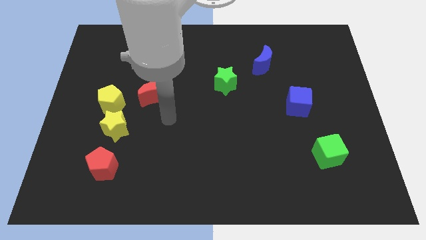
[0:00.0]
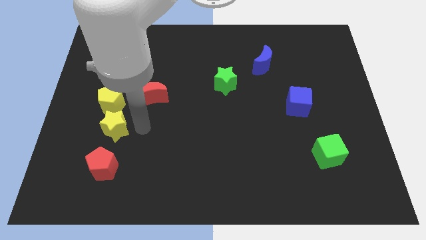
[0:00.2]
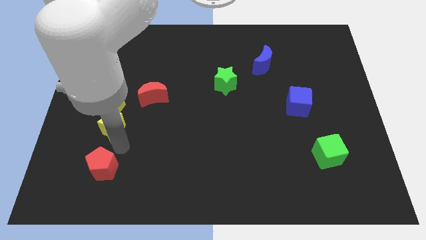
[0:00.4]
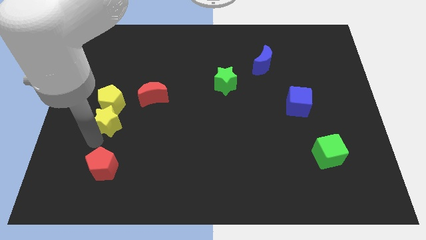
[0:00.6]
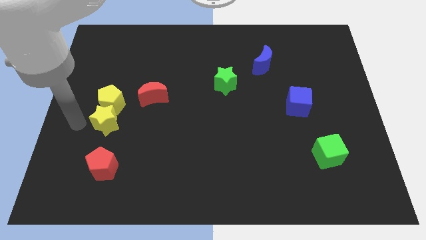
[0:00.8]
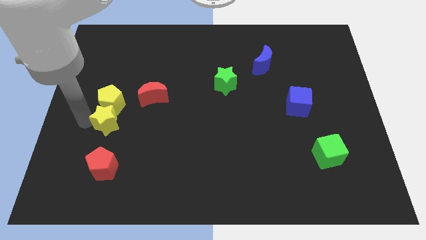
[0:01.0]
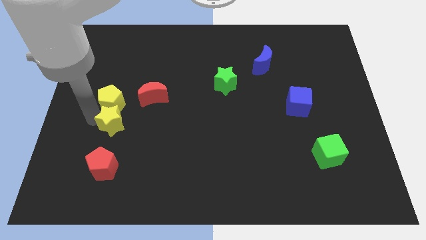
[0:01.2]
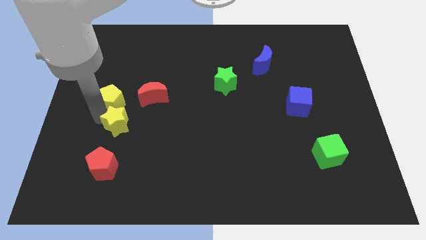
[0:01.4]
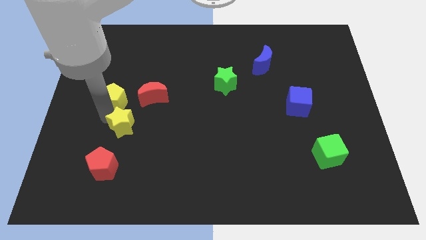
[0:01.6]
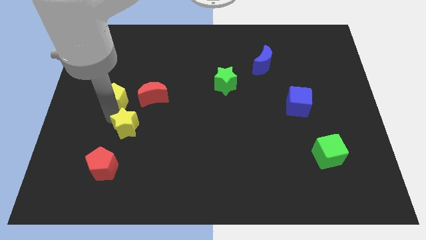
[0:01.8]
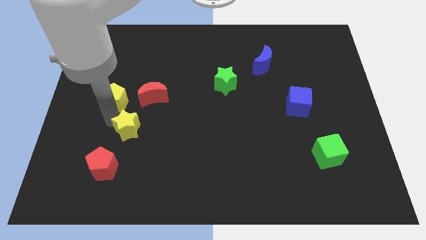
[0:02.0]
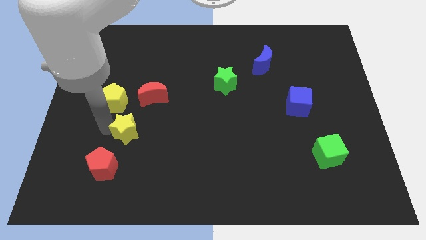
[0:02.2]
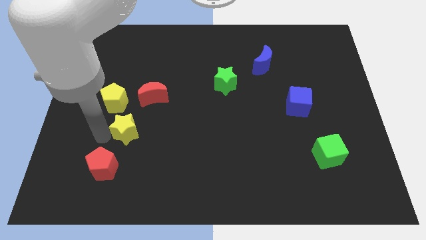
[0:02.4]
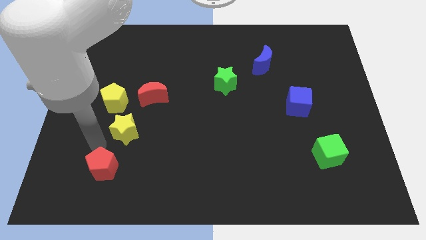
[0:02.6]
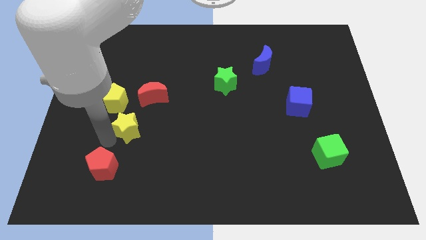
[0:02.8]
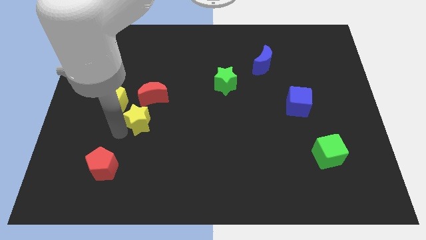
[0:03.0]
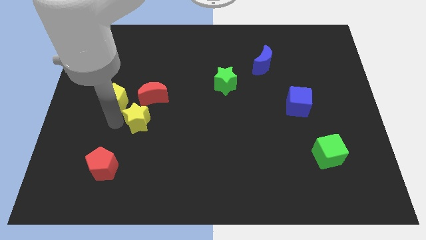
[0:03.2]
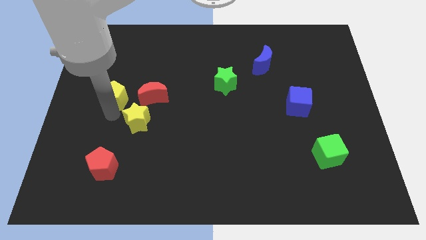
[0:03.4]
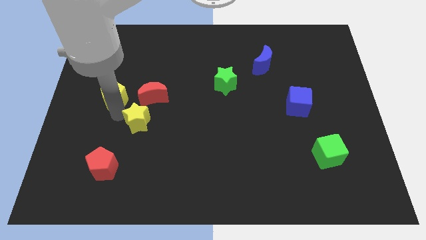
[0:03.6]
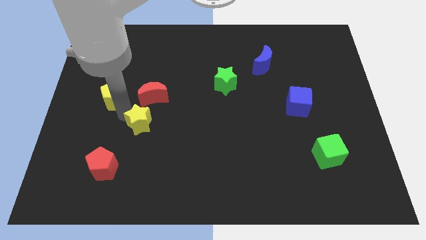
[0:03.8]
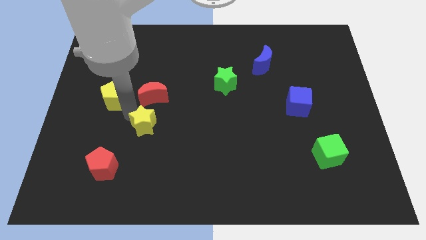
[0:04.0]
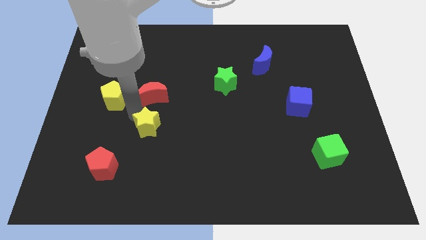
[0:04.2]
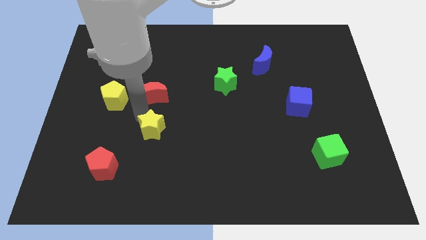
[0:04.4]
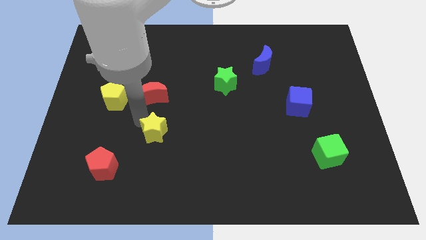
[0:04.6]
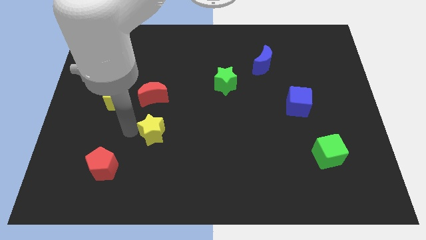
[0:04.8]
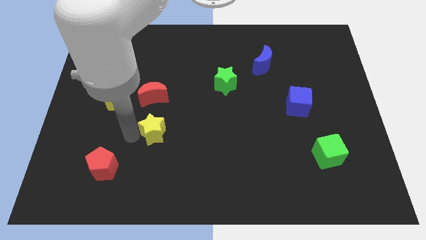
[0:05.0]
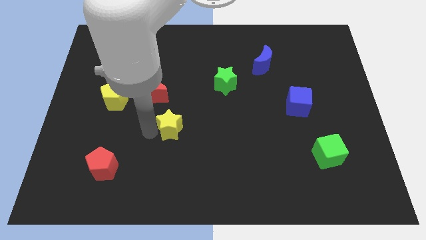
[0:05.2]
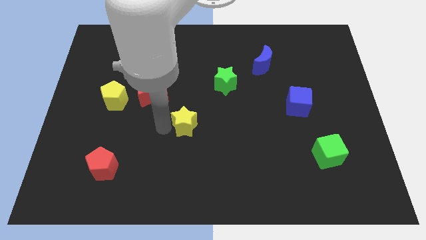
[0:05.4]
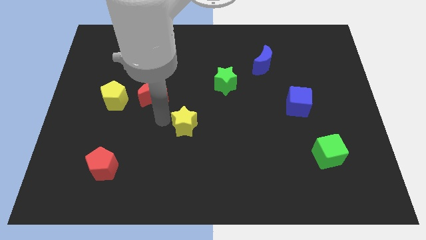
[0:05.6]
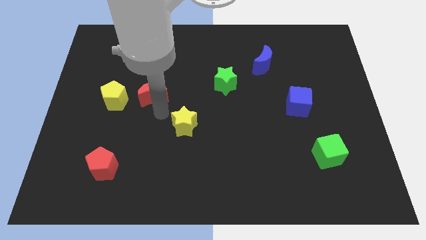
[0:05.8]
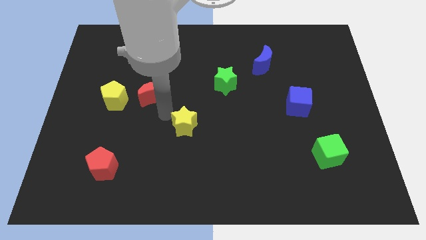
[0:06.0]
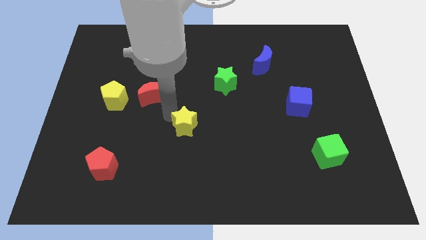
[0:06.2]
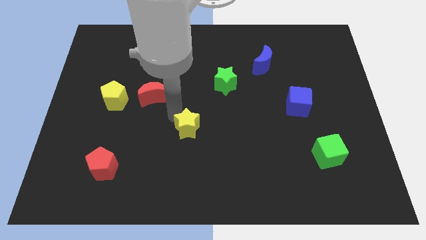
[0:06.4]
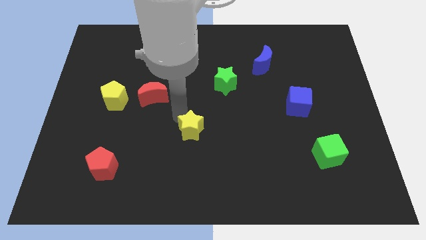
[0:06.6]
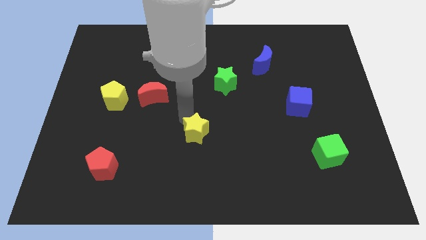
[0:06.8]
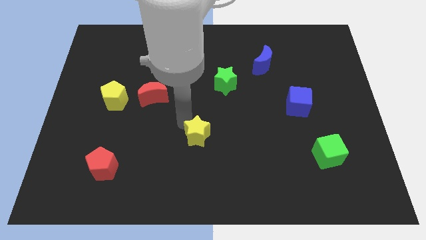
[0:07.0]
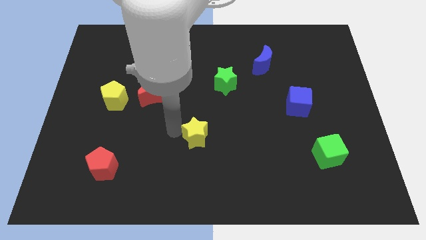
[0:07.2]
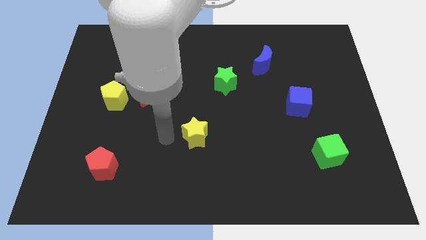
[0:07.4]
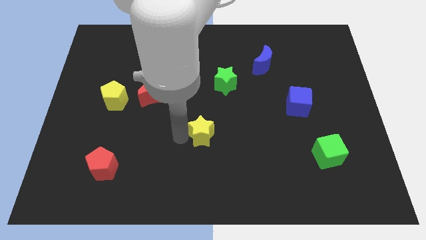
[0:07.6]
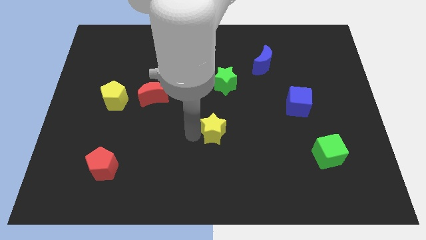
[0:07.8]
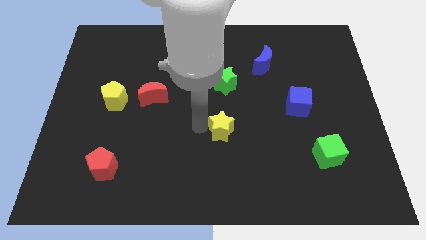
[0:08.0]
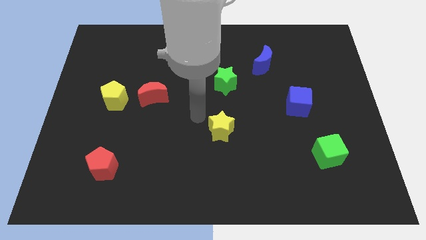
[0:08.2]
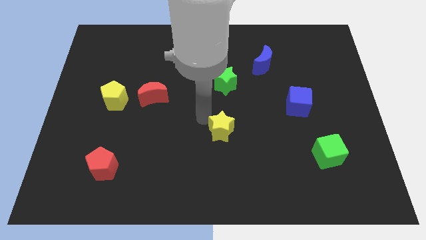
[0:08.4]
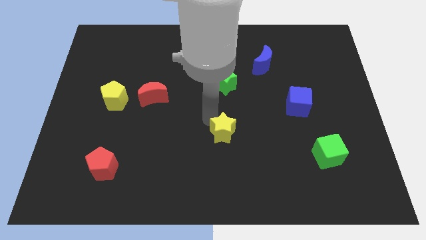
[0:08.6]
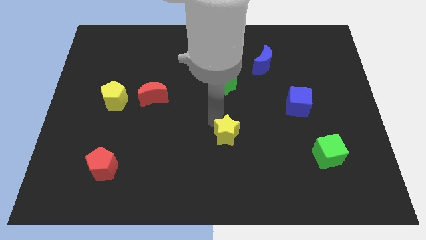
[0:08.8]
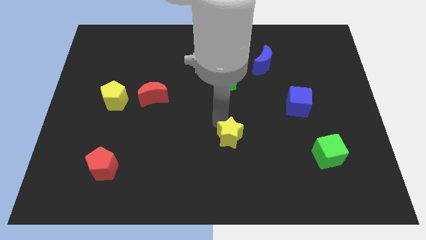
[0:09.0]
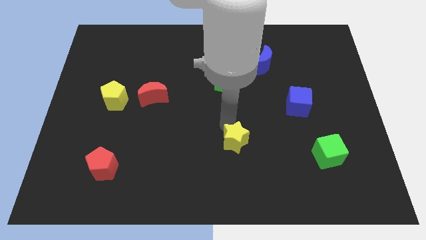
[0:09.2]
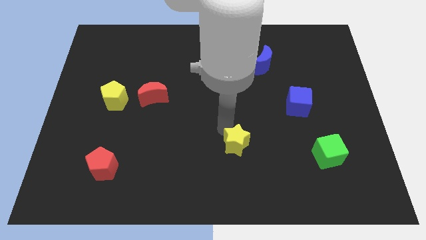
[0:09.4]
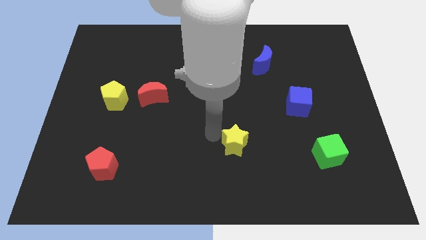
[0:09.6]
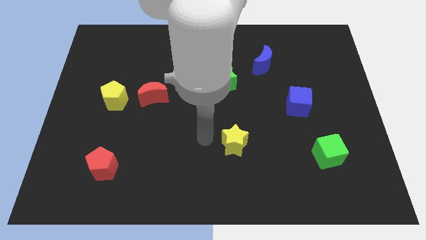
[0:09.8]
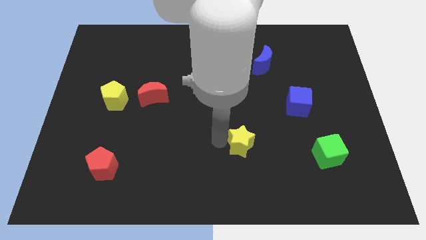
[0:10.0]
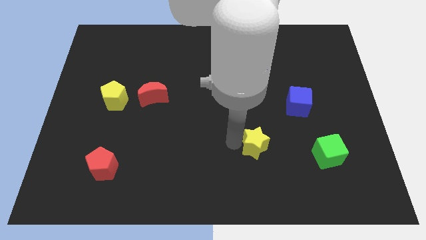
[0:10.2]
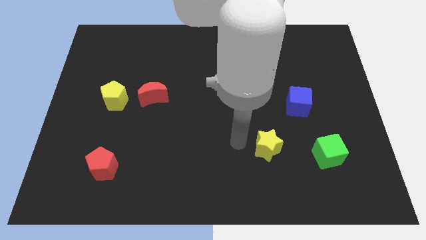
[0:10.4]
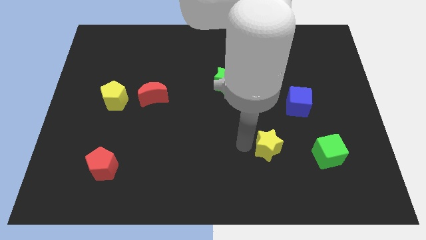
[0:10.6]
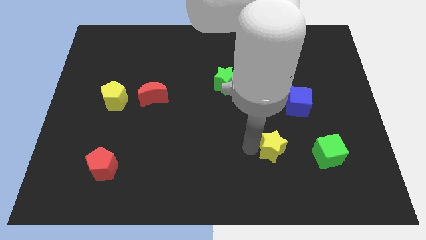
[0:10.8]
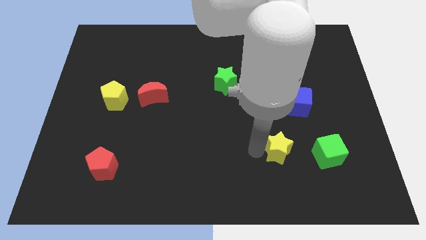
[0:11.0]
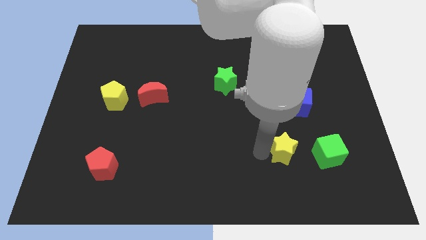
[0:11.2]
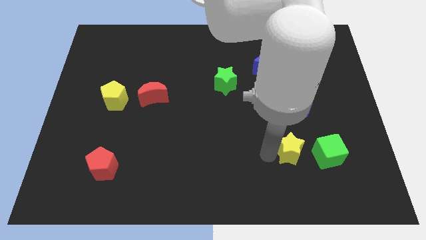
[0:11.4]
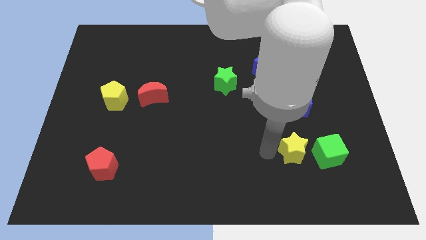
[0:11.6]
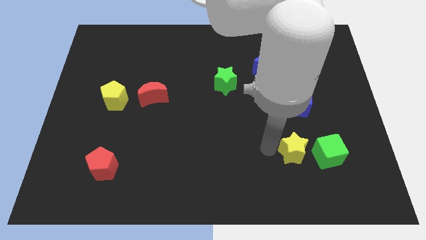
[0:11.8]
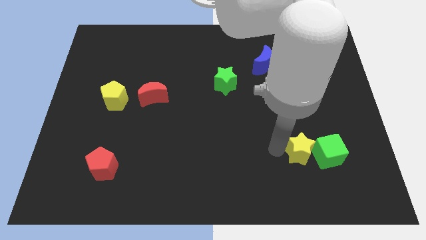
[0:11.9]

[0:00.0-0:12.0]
push the yellow star towards the green cube

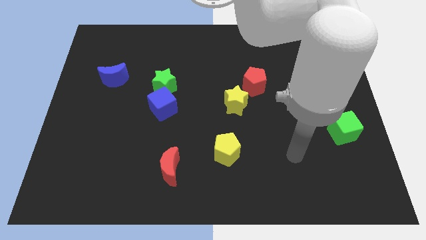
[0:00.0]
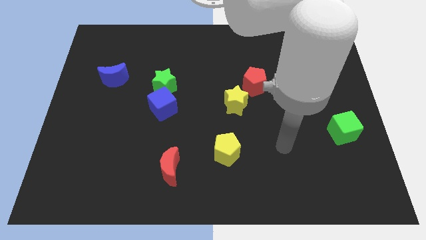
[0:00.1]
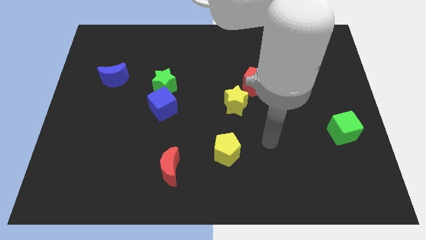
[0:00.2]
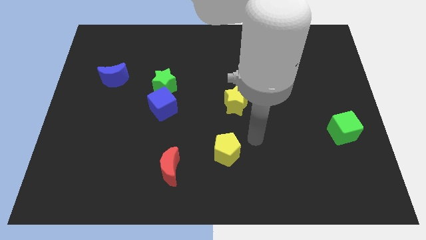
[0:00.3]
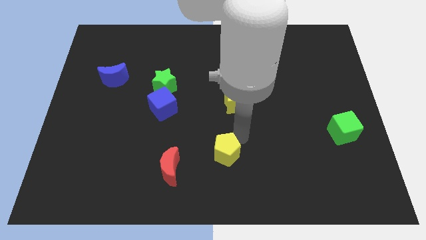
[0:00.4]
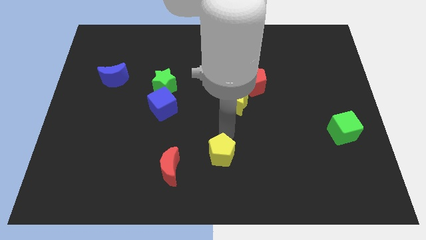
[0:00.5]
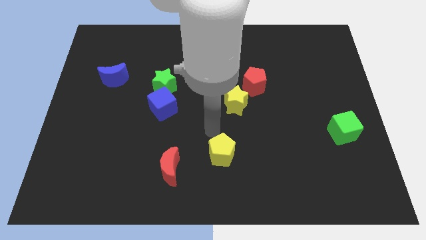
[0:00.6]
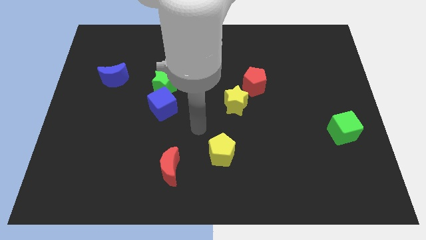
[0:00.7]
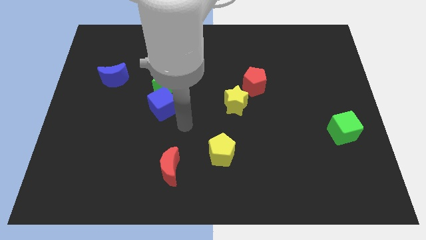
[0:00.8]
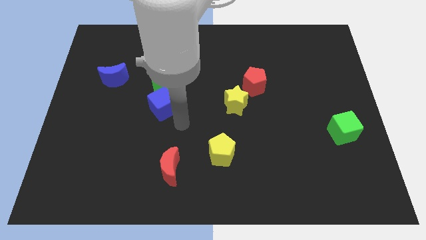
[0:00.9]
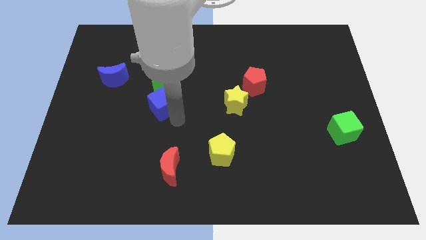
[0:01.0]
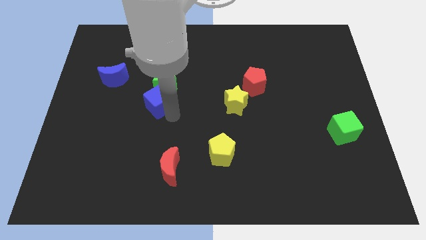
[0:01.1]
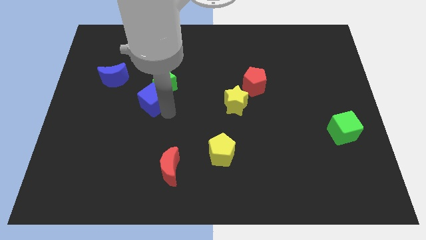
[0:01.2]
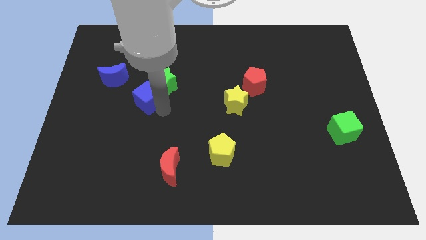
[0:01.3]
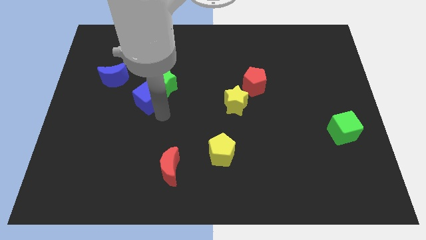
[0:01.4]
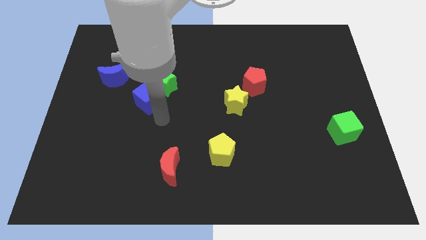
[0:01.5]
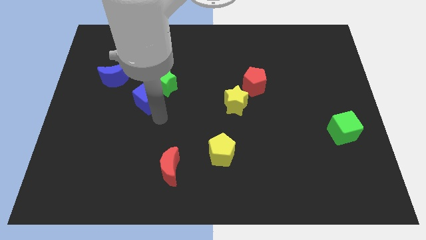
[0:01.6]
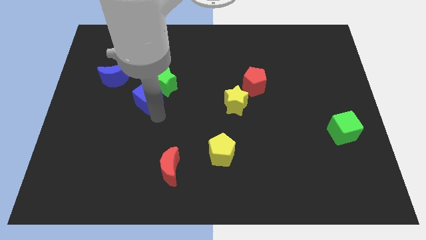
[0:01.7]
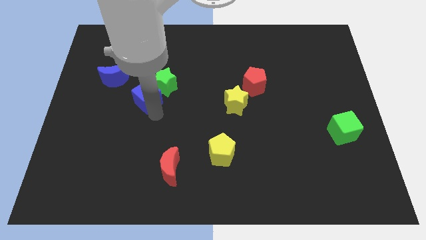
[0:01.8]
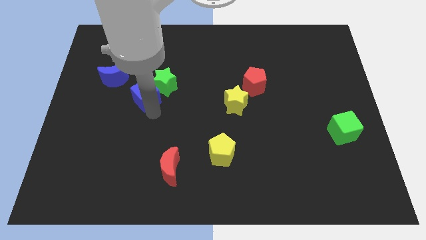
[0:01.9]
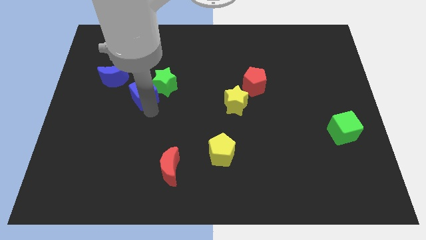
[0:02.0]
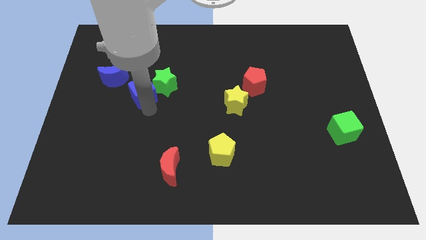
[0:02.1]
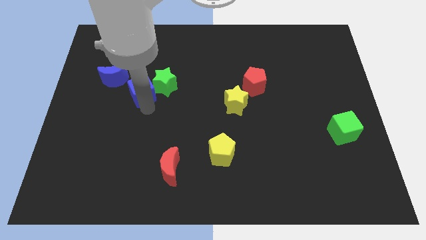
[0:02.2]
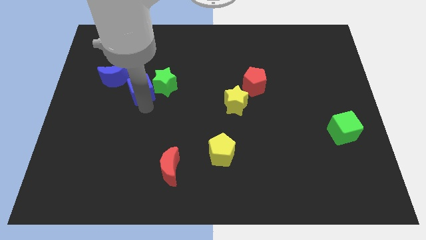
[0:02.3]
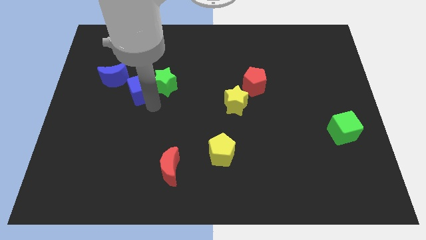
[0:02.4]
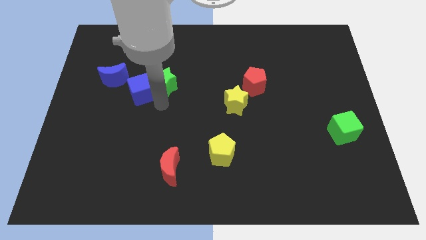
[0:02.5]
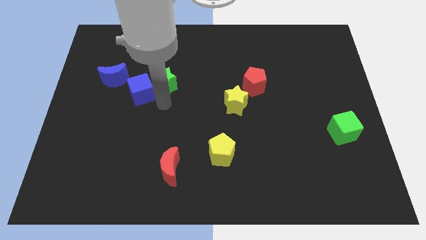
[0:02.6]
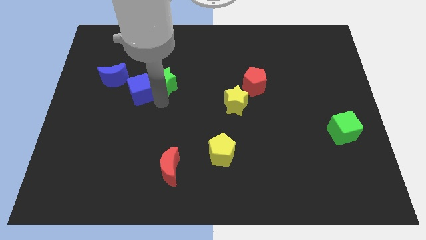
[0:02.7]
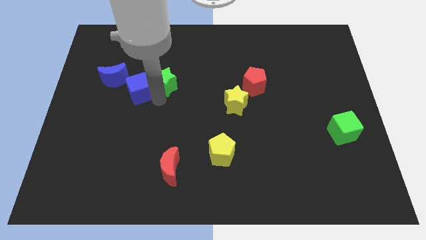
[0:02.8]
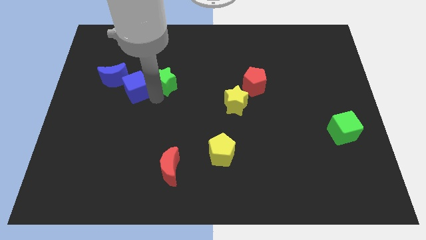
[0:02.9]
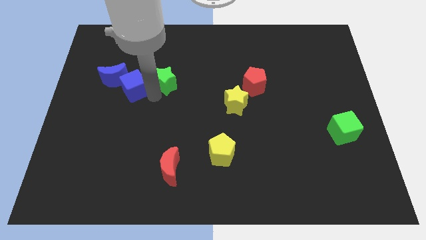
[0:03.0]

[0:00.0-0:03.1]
put the blue cube next to the blue moon
